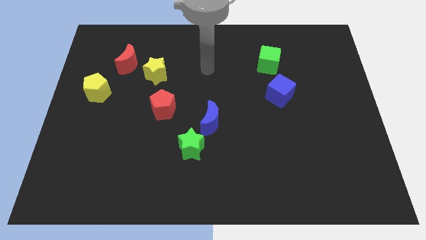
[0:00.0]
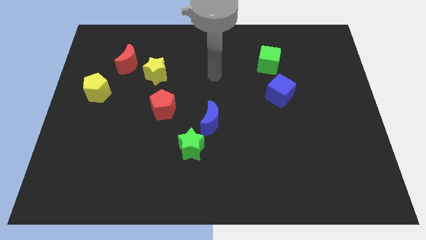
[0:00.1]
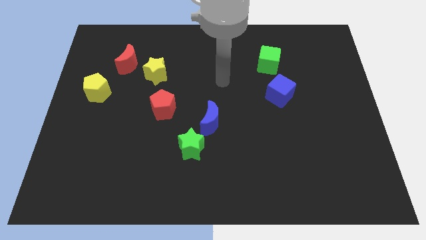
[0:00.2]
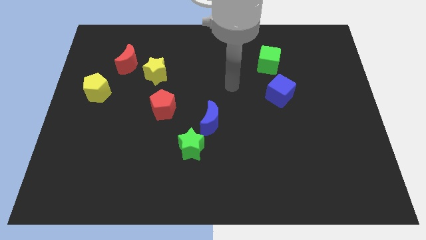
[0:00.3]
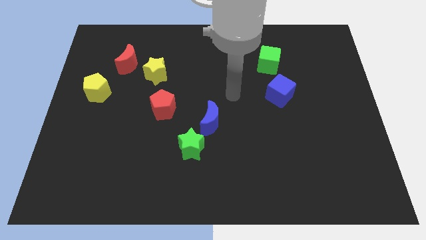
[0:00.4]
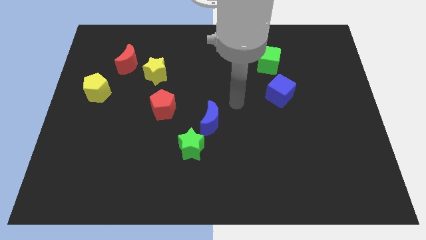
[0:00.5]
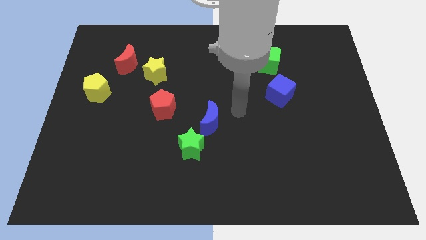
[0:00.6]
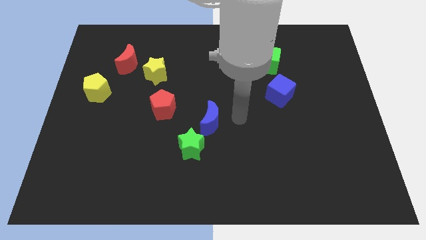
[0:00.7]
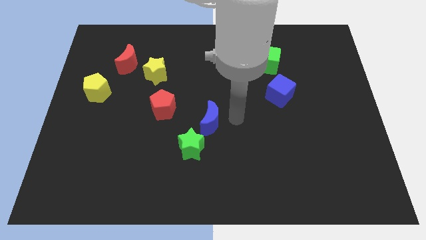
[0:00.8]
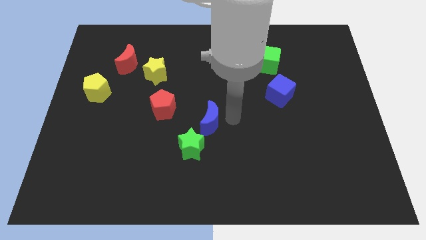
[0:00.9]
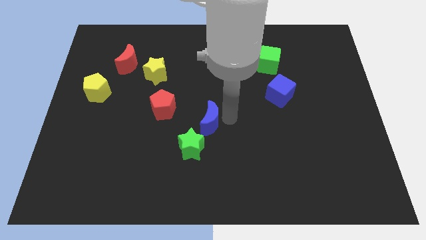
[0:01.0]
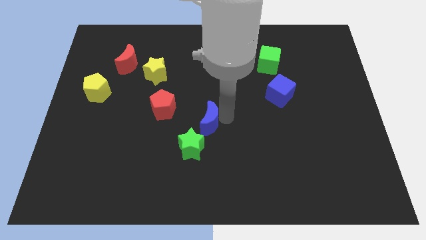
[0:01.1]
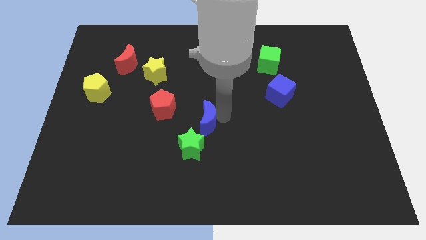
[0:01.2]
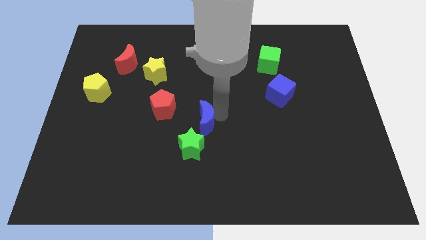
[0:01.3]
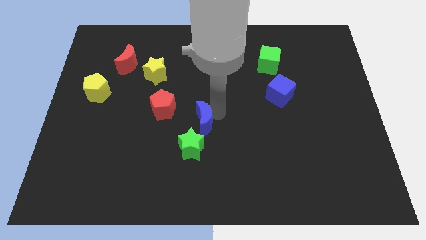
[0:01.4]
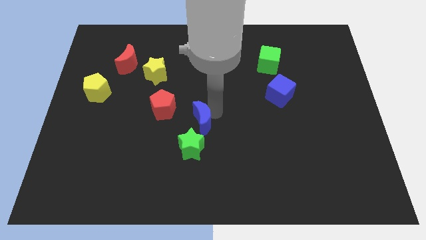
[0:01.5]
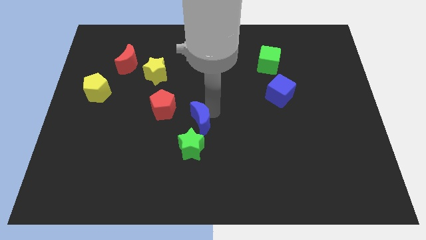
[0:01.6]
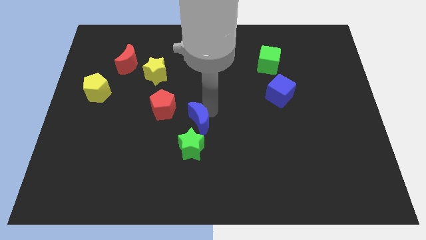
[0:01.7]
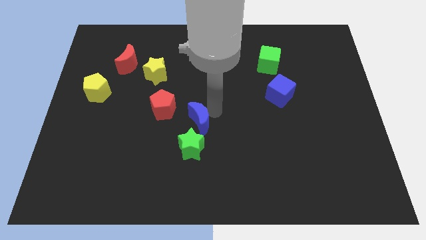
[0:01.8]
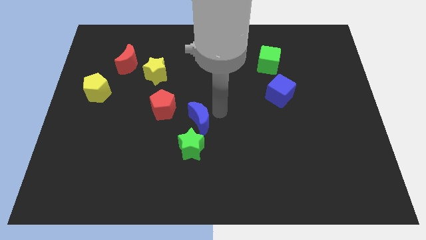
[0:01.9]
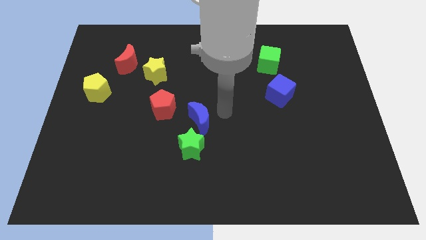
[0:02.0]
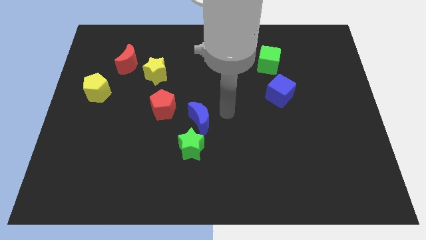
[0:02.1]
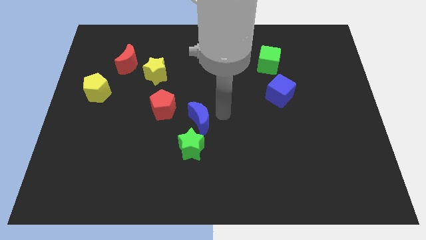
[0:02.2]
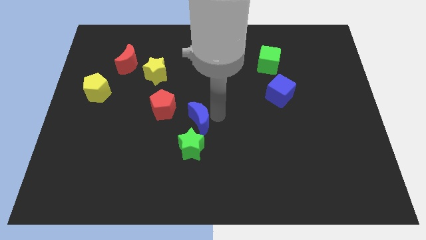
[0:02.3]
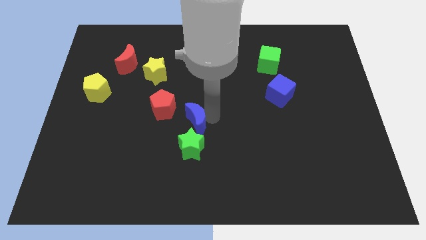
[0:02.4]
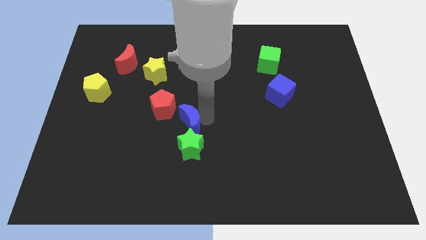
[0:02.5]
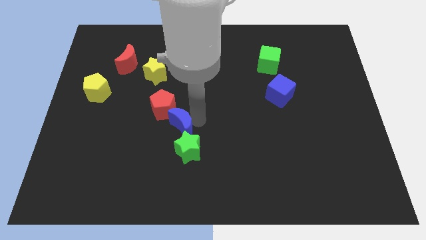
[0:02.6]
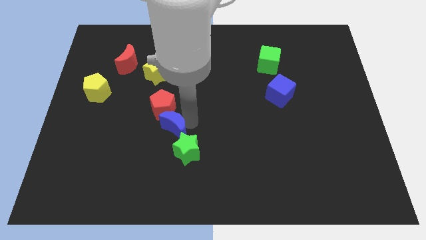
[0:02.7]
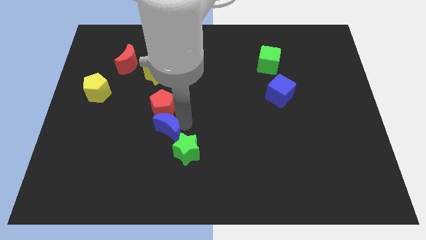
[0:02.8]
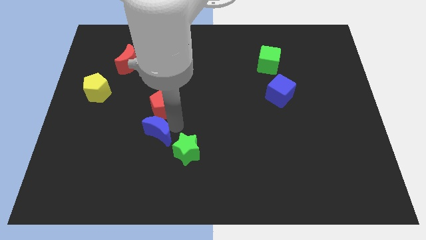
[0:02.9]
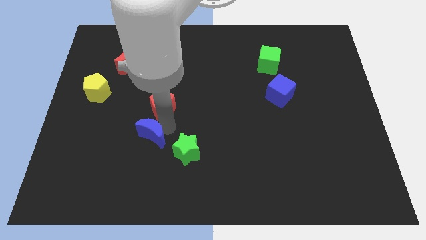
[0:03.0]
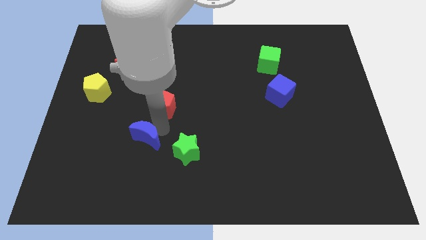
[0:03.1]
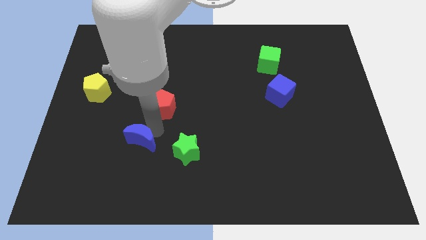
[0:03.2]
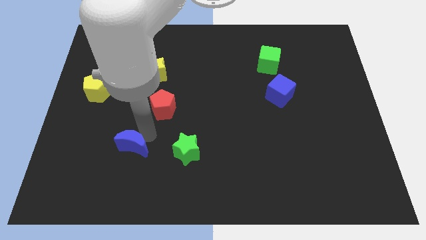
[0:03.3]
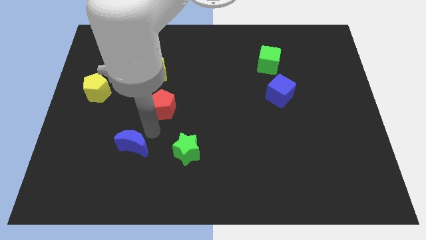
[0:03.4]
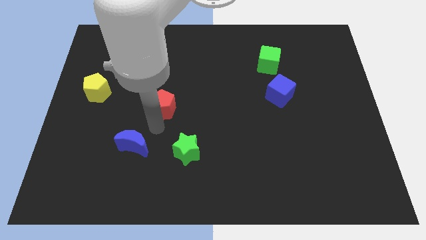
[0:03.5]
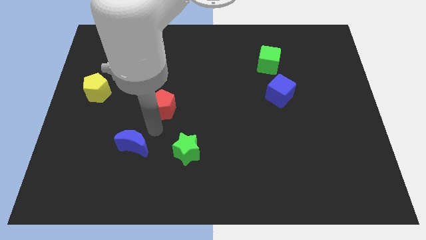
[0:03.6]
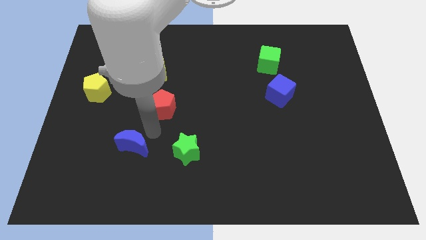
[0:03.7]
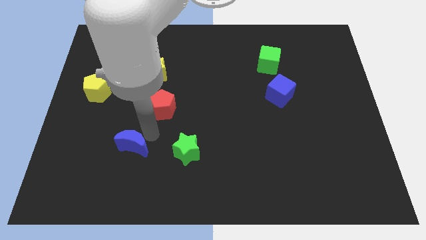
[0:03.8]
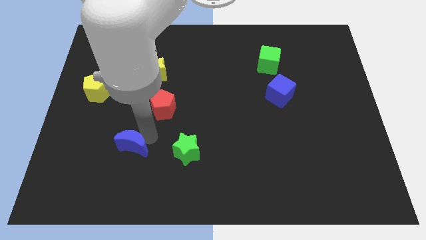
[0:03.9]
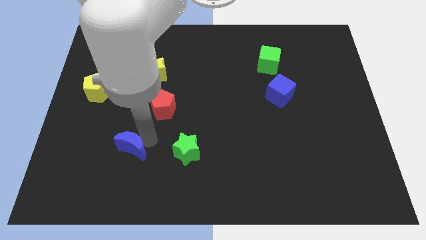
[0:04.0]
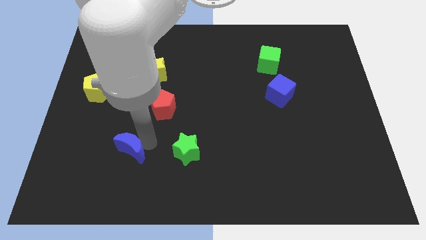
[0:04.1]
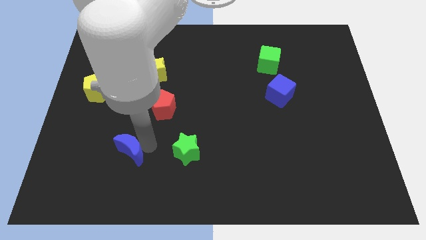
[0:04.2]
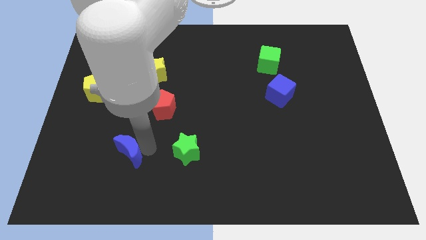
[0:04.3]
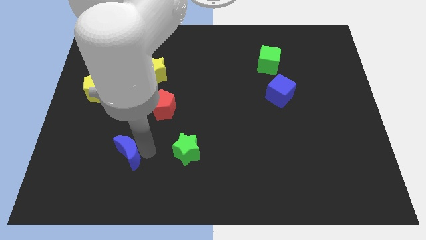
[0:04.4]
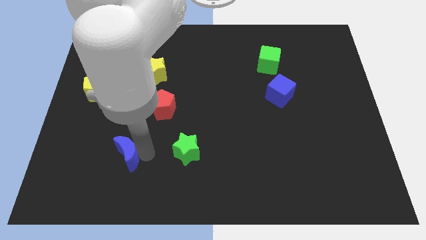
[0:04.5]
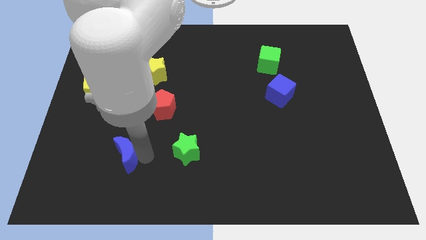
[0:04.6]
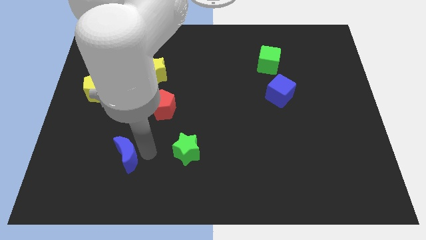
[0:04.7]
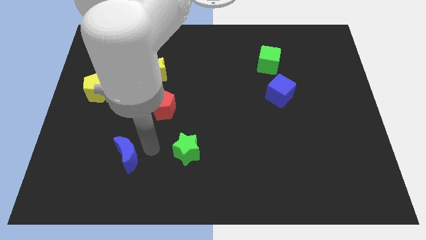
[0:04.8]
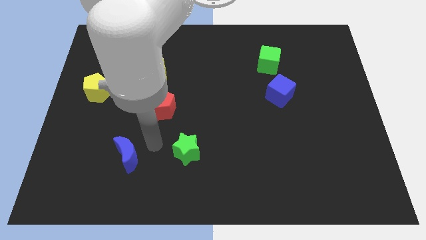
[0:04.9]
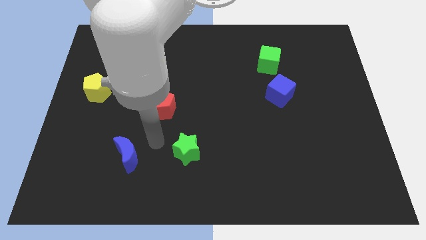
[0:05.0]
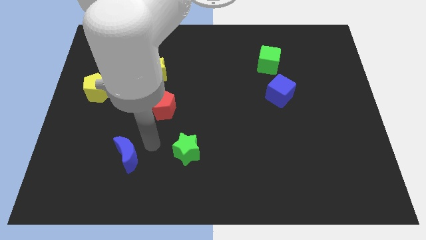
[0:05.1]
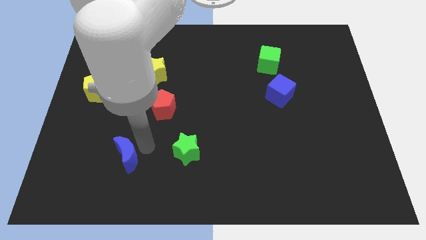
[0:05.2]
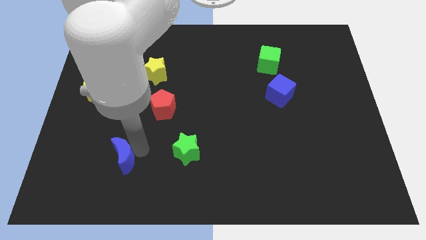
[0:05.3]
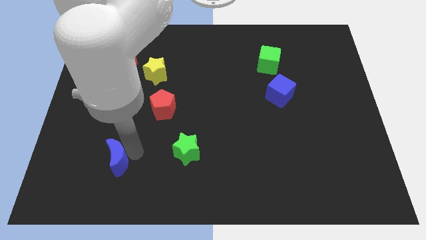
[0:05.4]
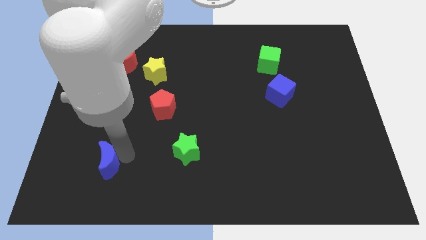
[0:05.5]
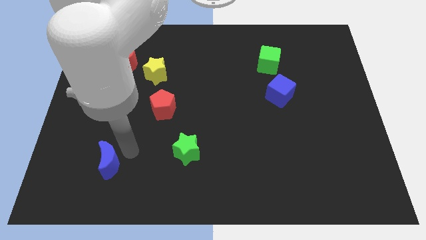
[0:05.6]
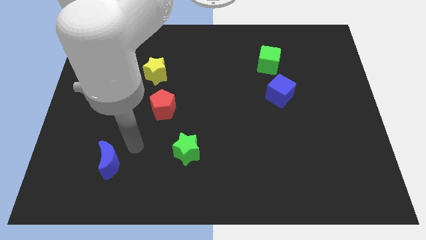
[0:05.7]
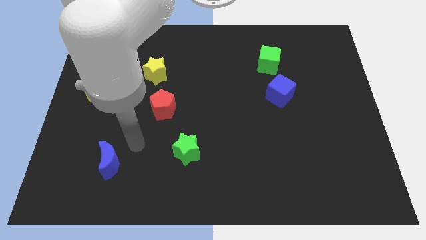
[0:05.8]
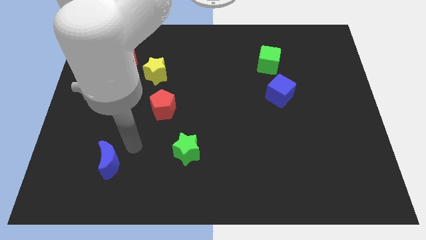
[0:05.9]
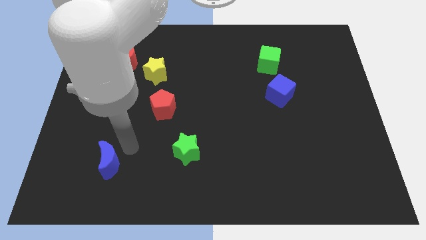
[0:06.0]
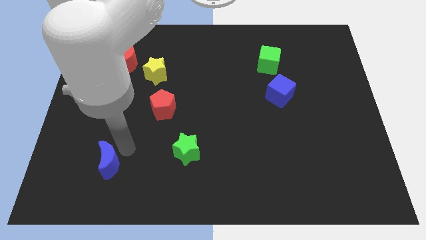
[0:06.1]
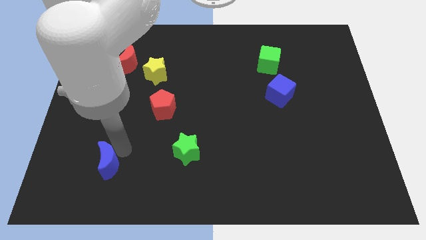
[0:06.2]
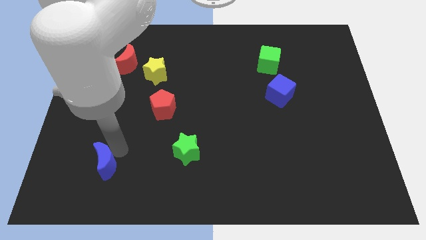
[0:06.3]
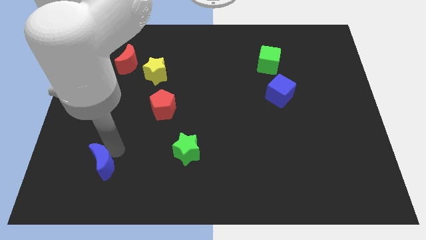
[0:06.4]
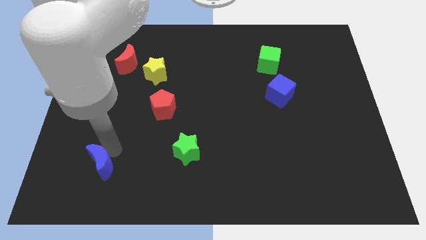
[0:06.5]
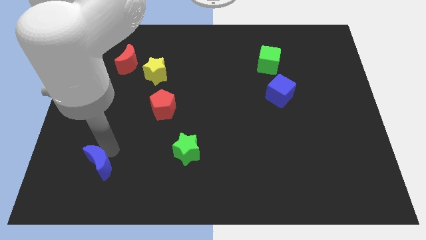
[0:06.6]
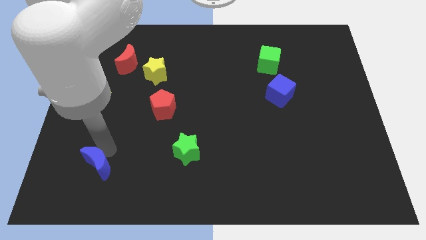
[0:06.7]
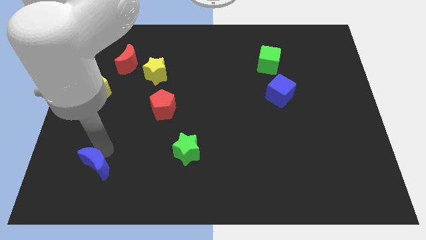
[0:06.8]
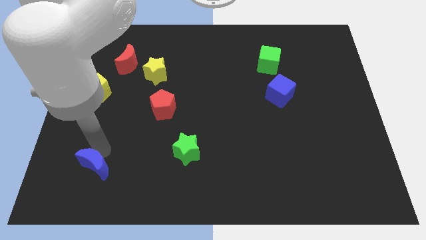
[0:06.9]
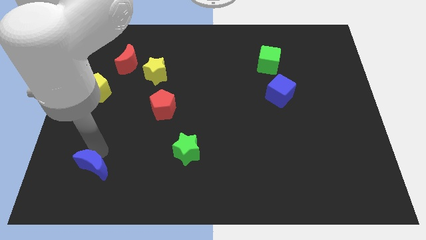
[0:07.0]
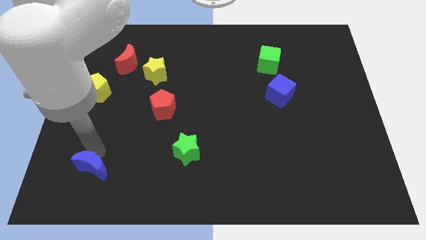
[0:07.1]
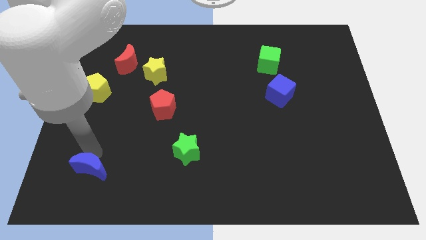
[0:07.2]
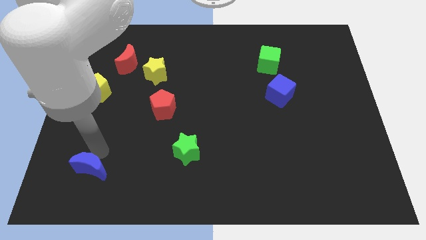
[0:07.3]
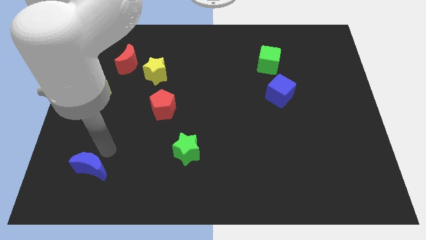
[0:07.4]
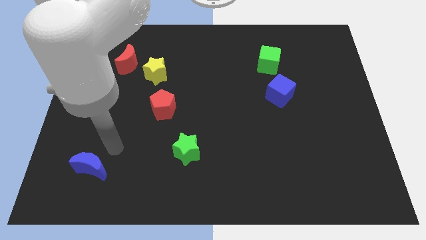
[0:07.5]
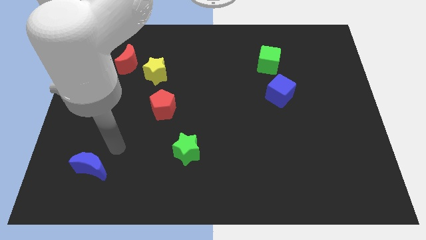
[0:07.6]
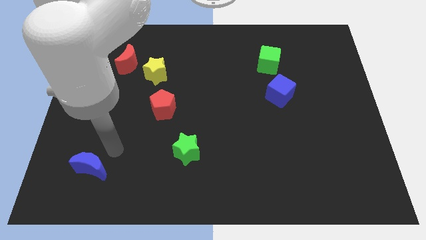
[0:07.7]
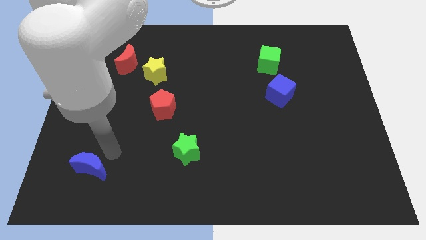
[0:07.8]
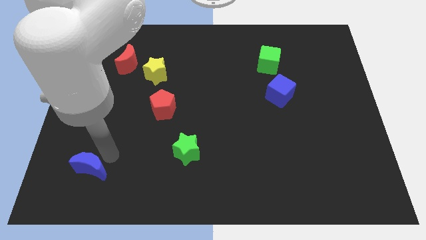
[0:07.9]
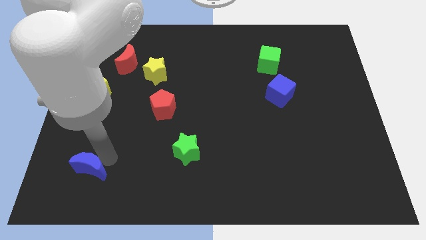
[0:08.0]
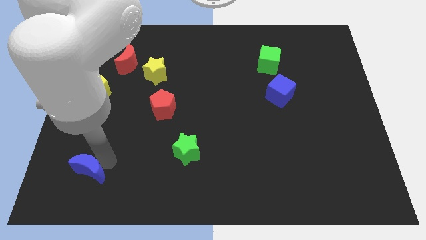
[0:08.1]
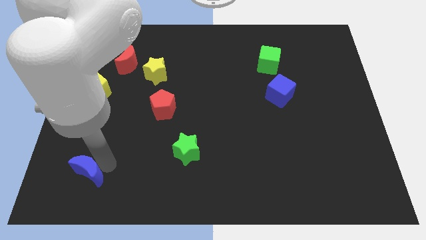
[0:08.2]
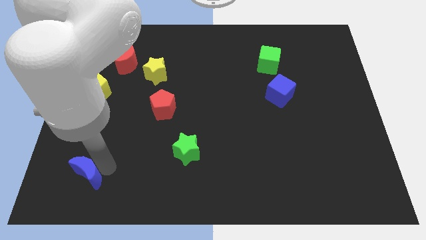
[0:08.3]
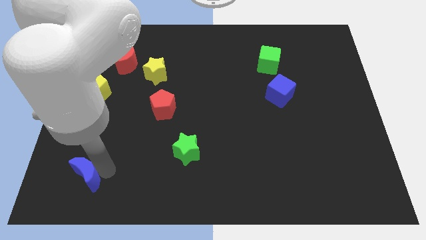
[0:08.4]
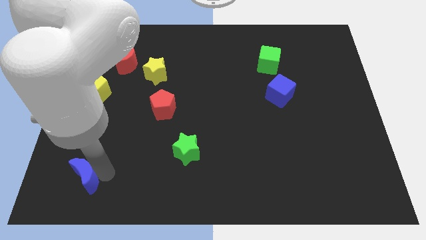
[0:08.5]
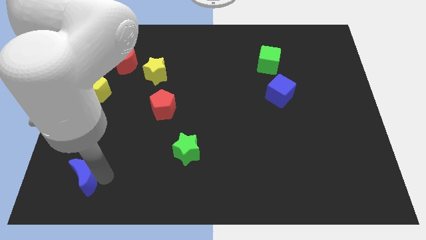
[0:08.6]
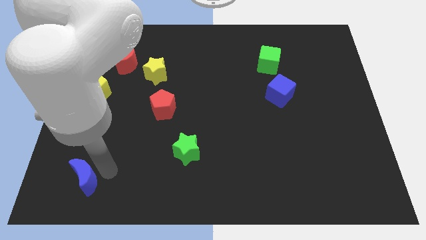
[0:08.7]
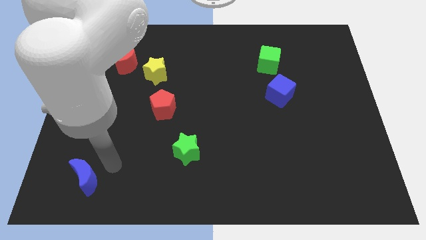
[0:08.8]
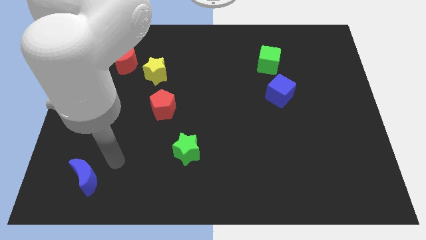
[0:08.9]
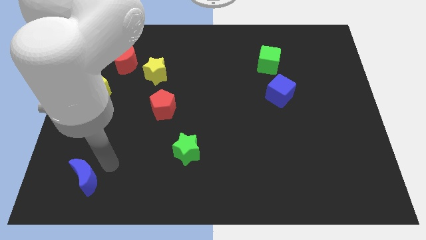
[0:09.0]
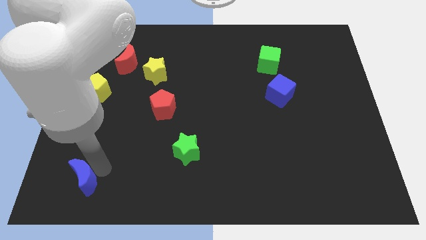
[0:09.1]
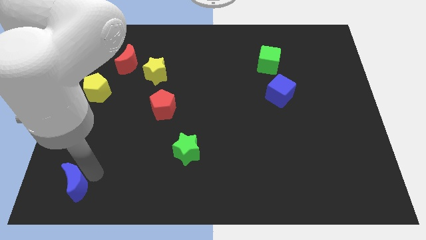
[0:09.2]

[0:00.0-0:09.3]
push the blue moon to the bottom left
